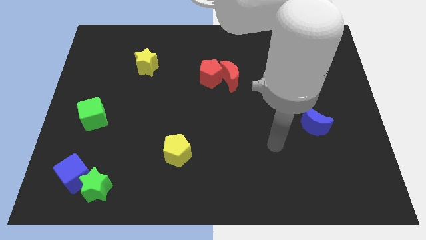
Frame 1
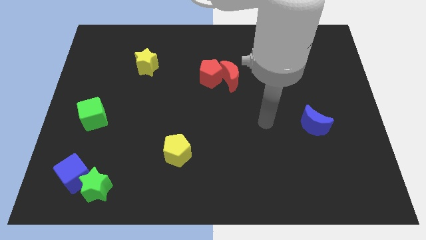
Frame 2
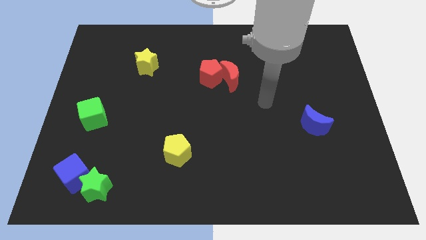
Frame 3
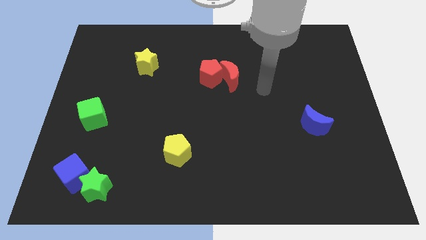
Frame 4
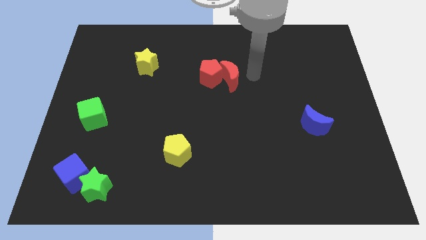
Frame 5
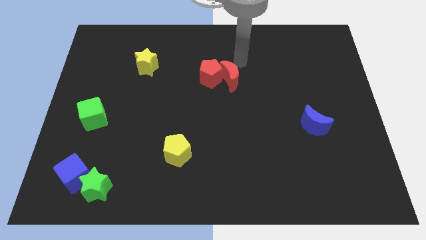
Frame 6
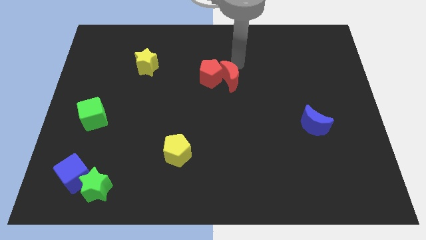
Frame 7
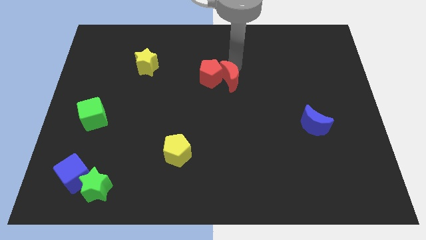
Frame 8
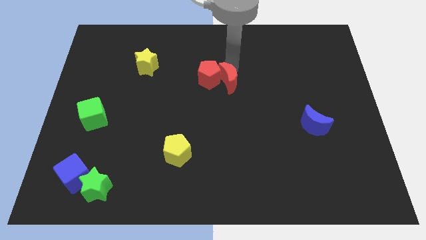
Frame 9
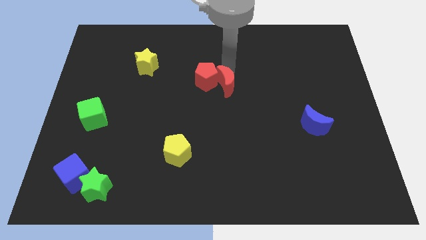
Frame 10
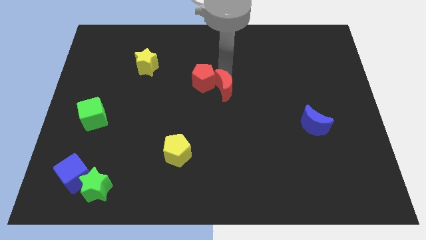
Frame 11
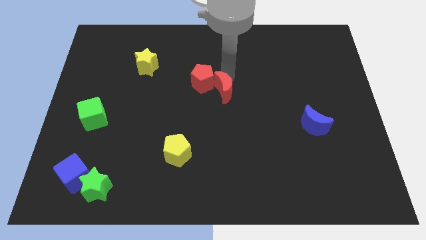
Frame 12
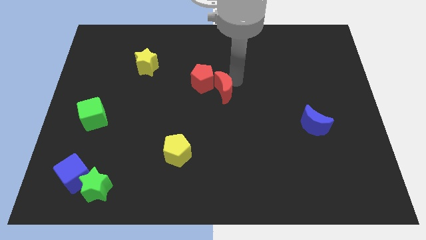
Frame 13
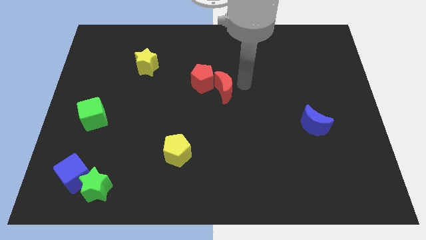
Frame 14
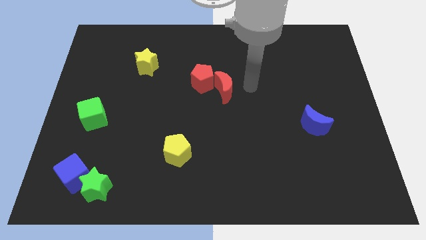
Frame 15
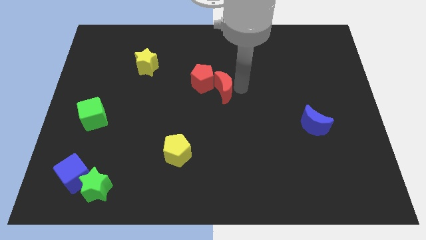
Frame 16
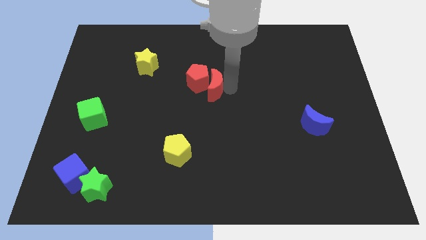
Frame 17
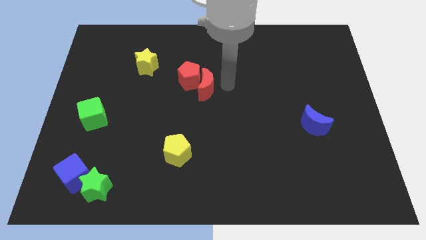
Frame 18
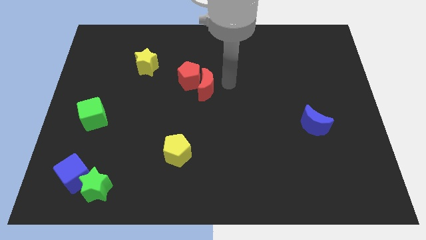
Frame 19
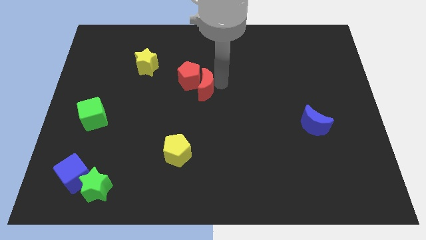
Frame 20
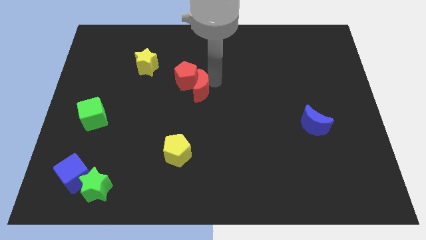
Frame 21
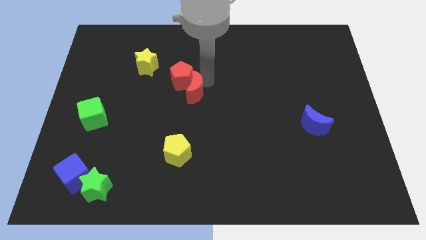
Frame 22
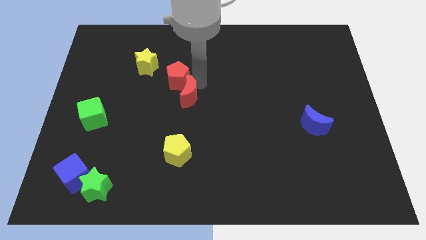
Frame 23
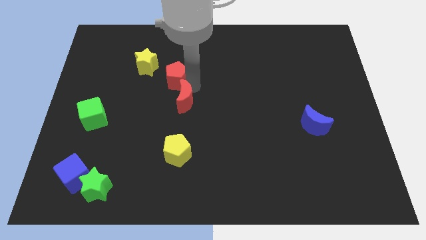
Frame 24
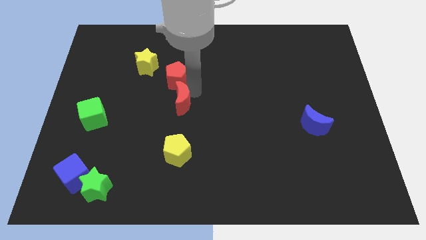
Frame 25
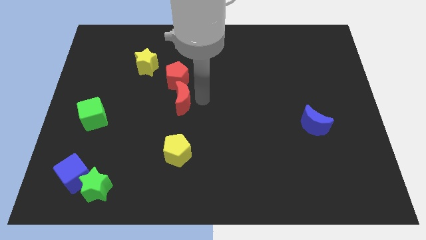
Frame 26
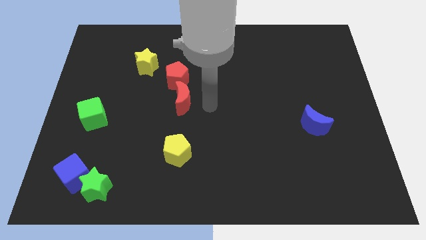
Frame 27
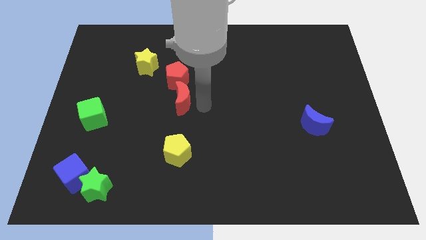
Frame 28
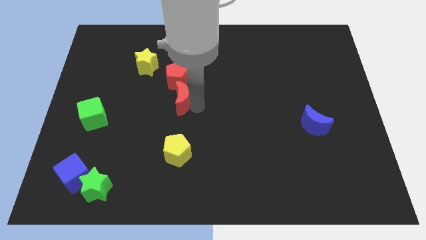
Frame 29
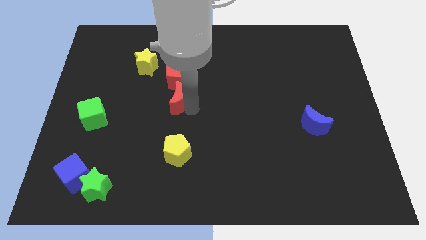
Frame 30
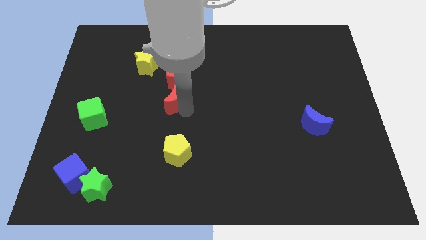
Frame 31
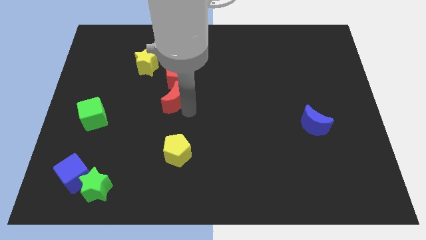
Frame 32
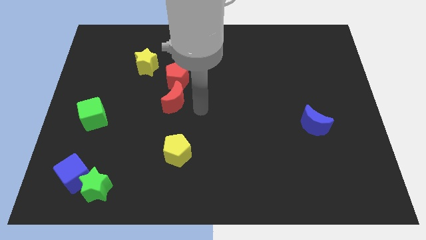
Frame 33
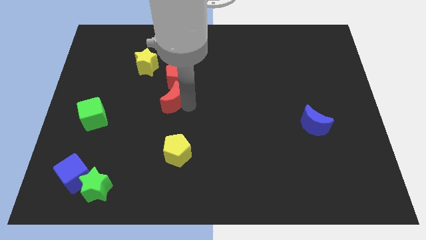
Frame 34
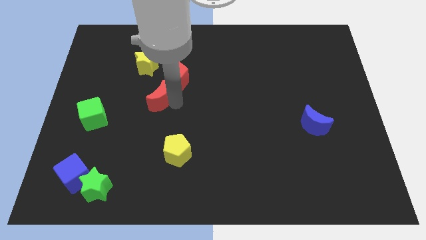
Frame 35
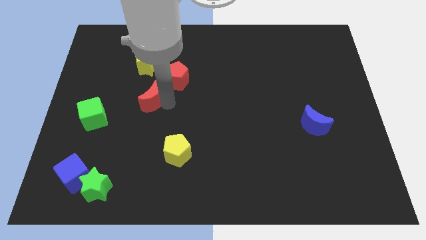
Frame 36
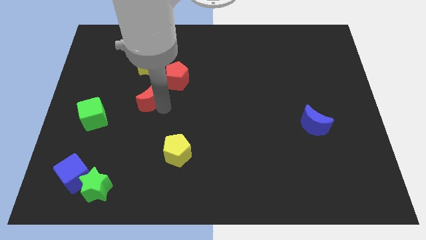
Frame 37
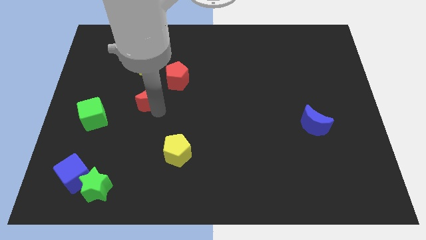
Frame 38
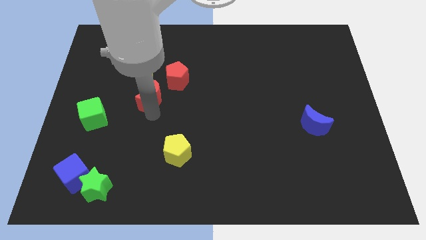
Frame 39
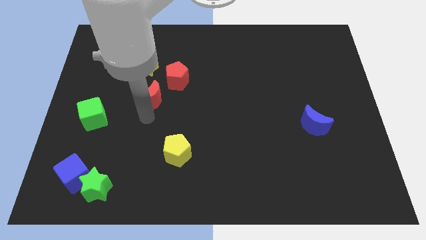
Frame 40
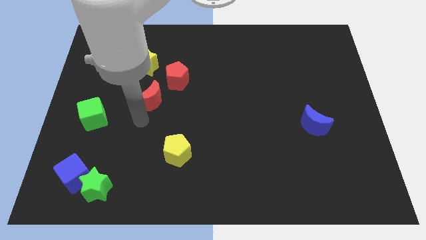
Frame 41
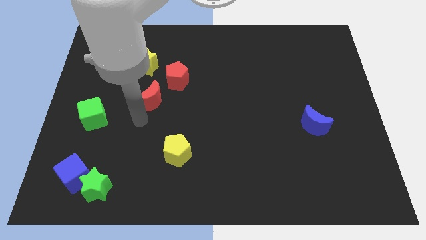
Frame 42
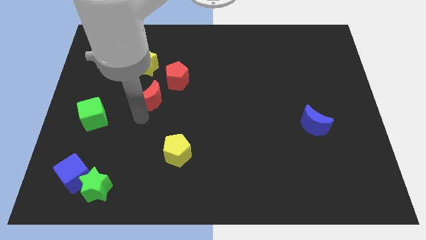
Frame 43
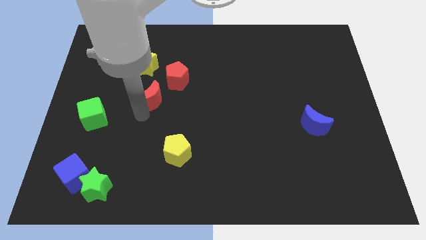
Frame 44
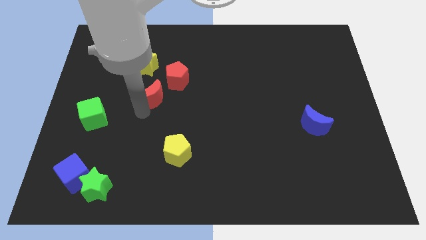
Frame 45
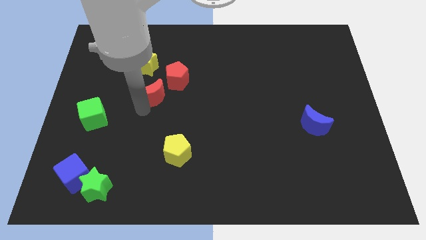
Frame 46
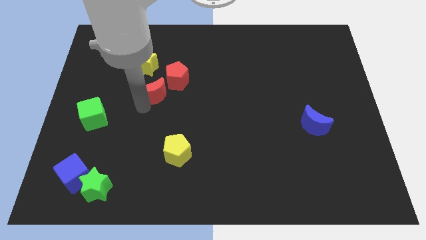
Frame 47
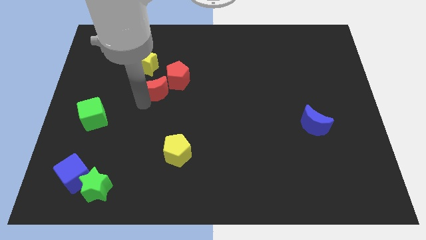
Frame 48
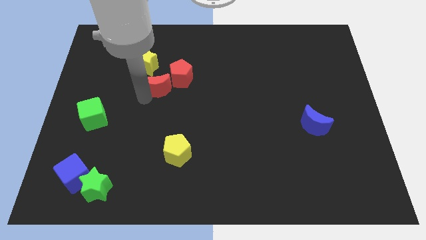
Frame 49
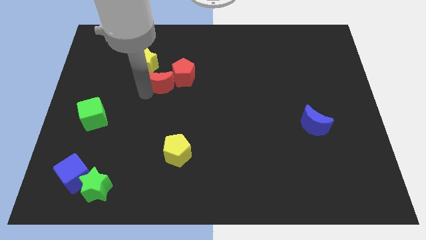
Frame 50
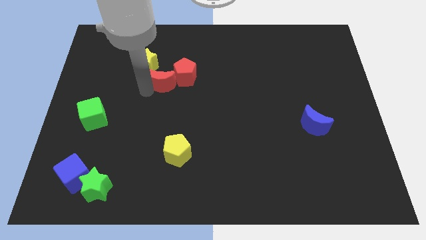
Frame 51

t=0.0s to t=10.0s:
move the red moon diagonally down and to the left of the red pentagon

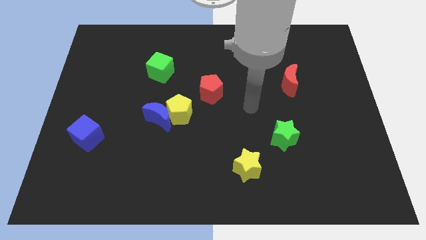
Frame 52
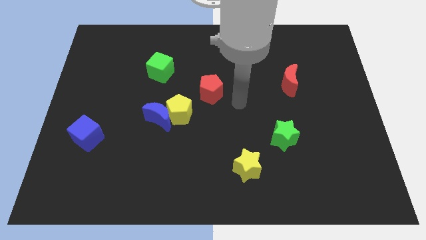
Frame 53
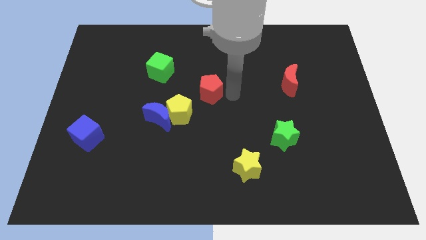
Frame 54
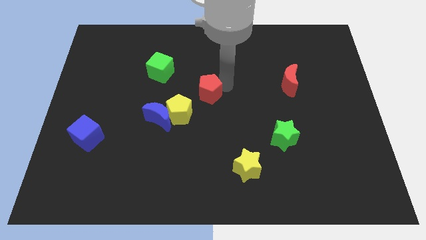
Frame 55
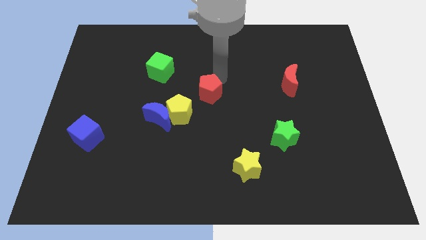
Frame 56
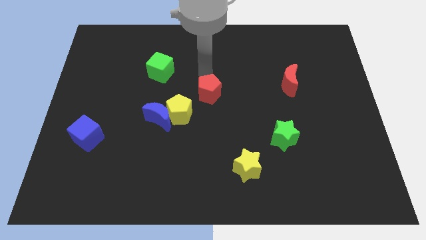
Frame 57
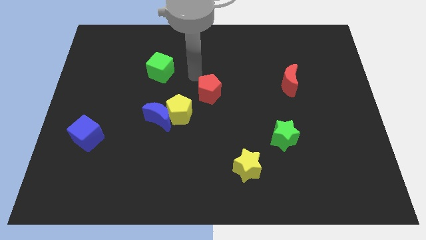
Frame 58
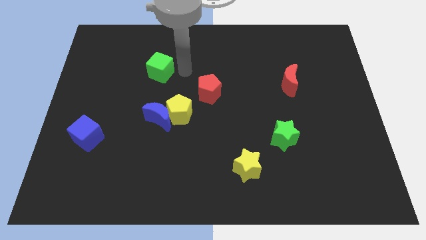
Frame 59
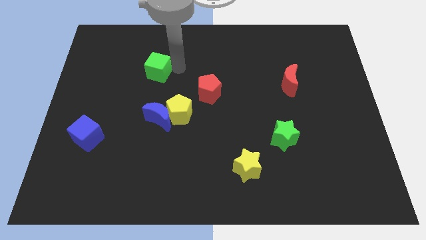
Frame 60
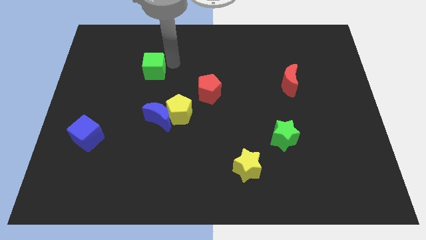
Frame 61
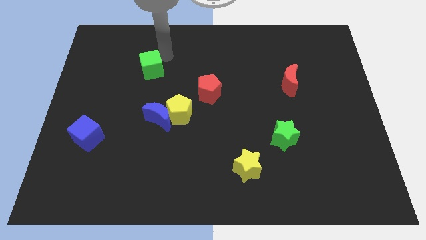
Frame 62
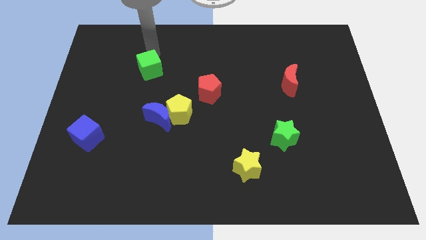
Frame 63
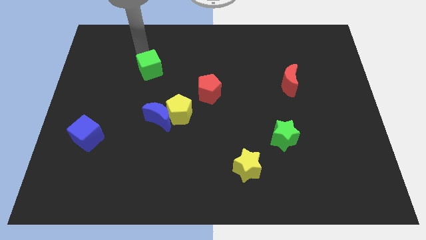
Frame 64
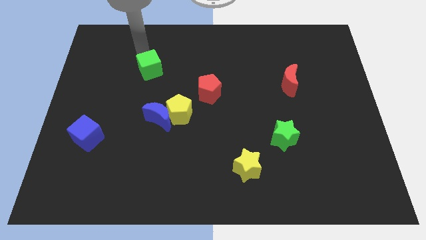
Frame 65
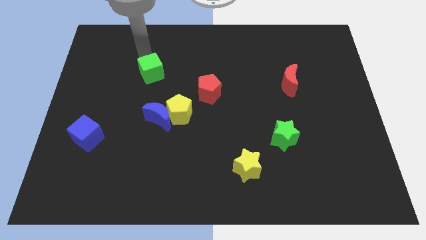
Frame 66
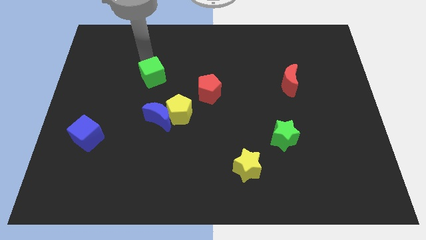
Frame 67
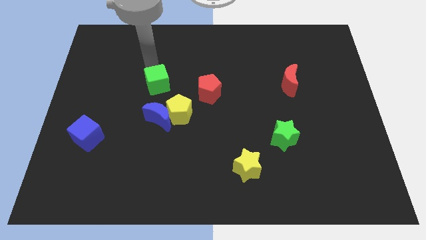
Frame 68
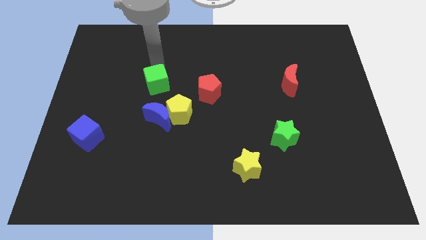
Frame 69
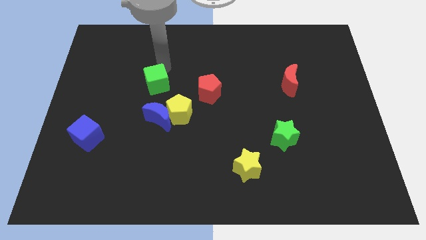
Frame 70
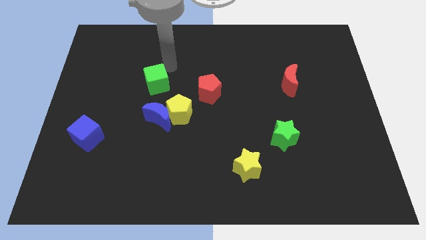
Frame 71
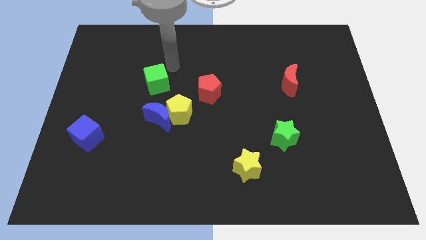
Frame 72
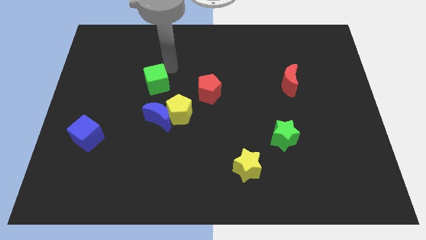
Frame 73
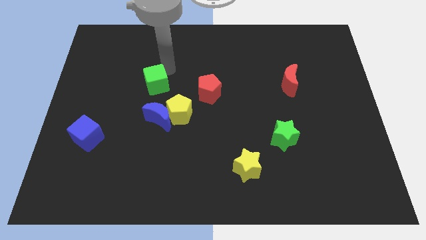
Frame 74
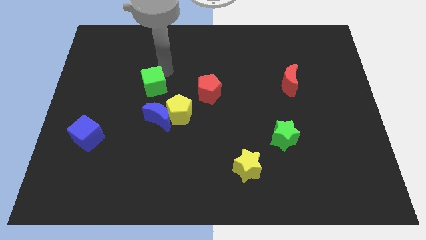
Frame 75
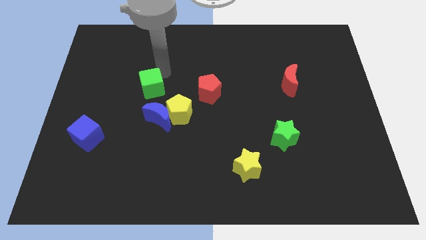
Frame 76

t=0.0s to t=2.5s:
put the green cube to the top left of the blue moon

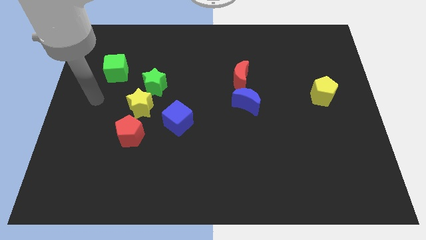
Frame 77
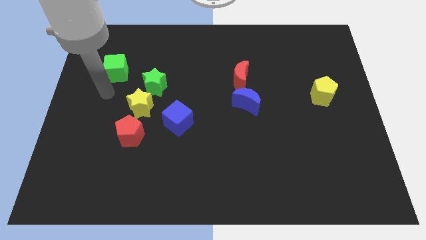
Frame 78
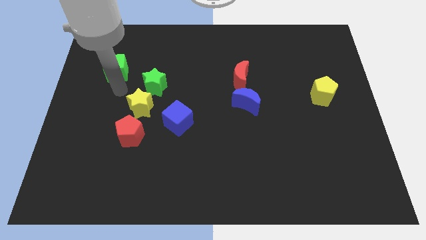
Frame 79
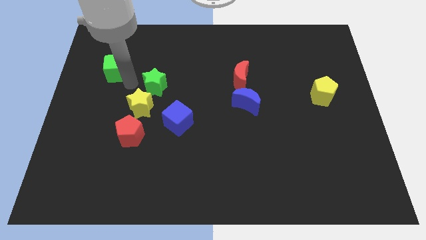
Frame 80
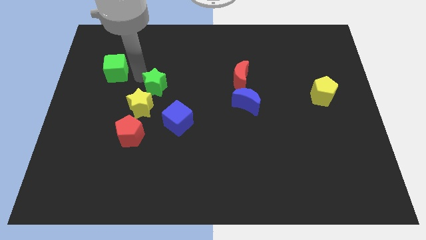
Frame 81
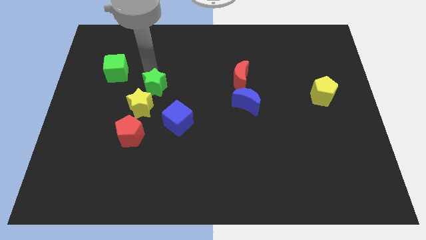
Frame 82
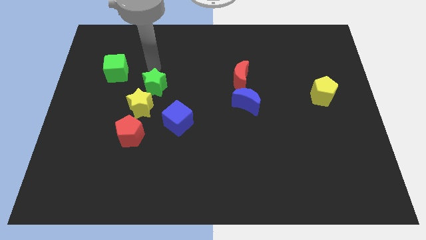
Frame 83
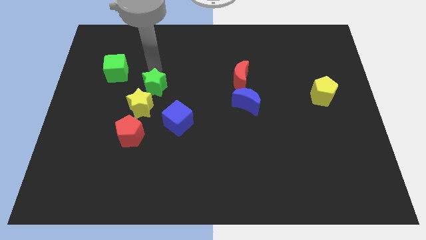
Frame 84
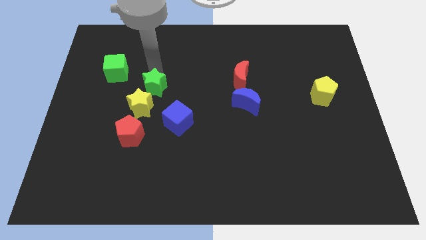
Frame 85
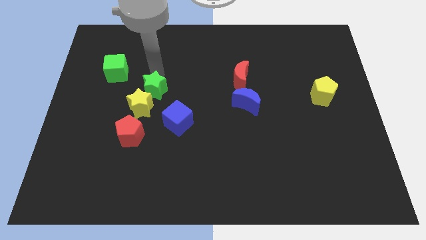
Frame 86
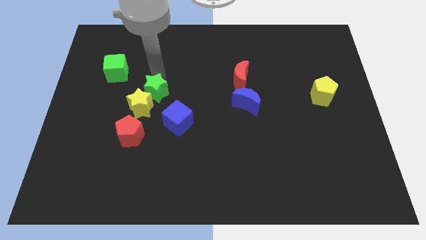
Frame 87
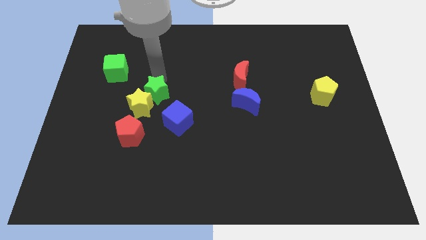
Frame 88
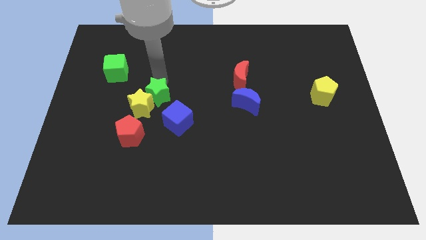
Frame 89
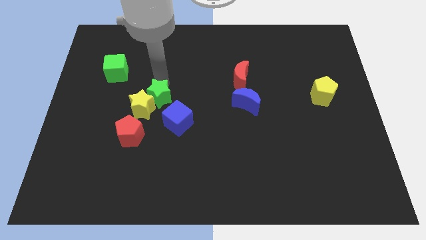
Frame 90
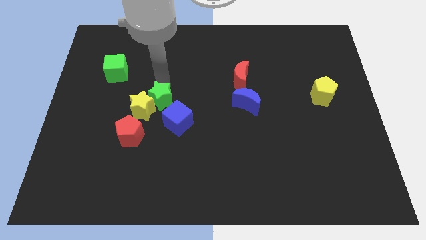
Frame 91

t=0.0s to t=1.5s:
slide the green star to the top right side of the red pentagon
